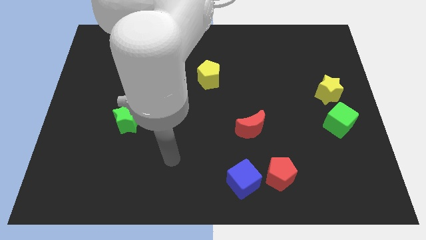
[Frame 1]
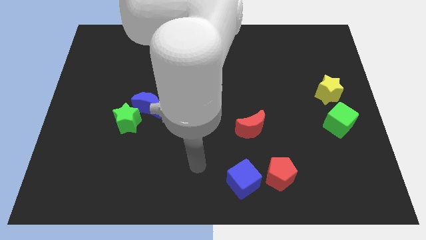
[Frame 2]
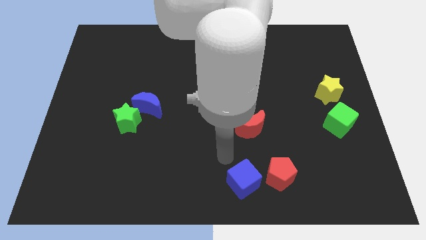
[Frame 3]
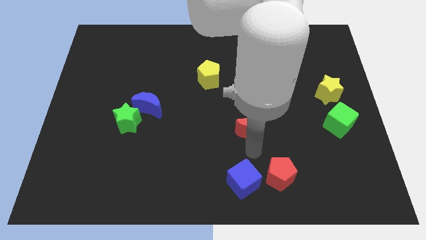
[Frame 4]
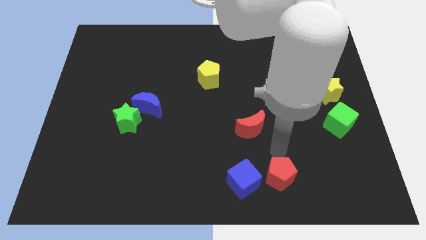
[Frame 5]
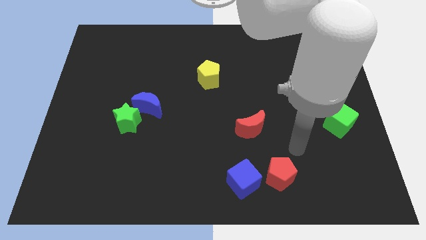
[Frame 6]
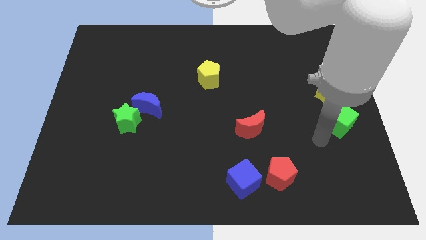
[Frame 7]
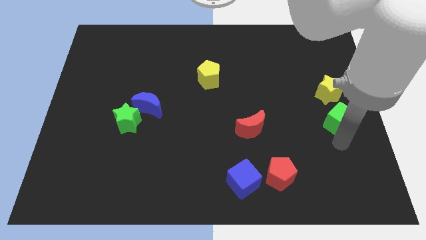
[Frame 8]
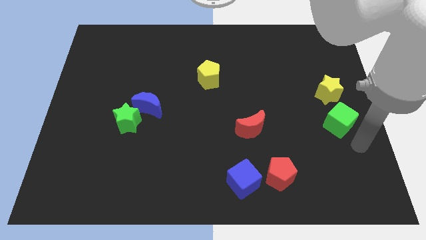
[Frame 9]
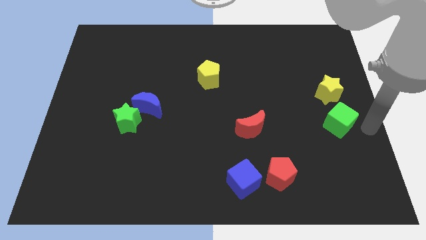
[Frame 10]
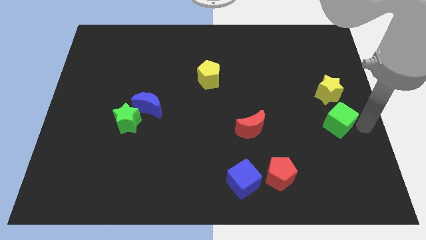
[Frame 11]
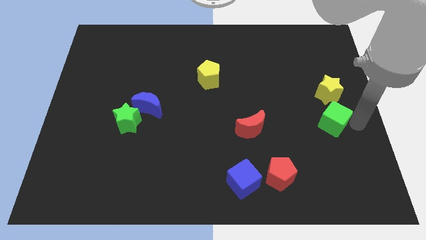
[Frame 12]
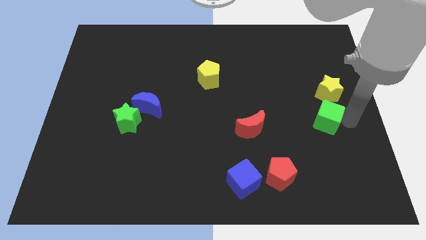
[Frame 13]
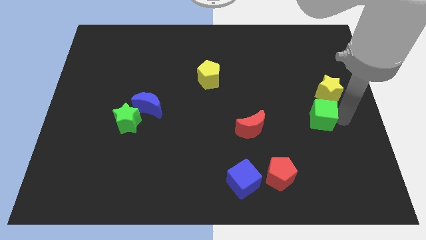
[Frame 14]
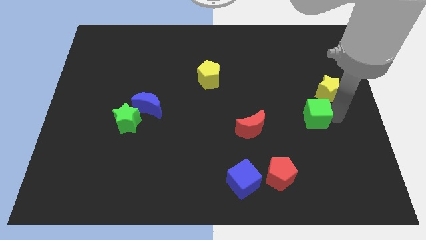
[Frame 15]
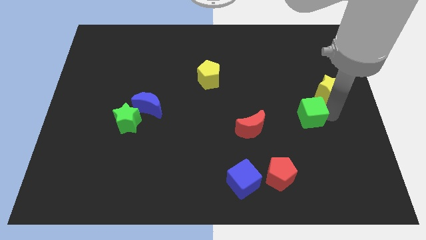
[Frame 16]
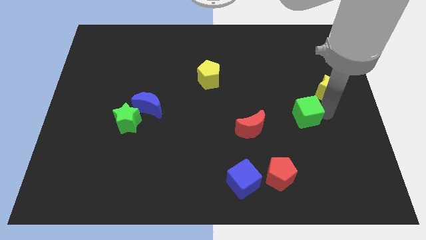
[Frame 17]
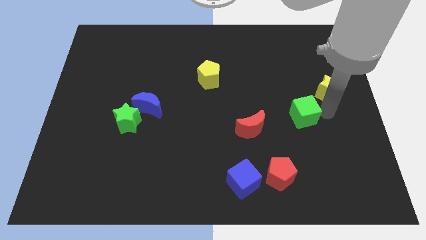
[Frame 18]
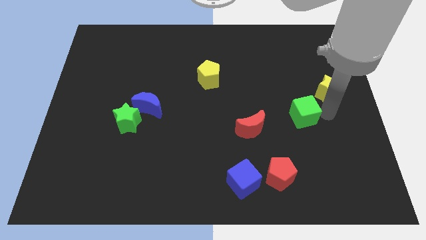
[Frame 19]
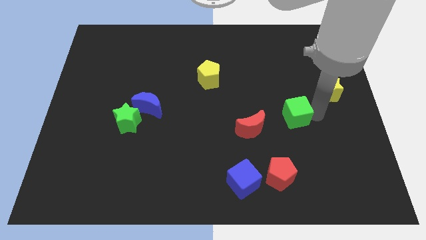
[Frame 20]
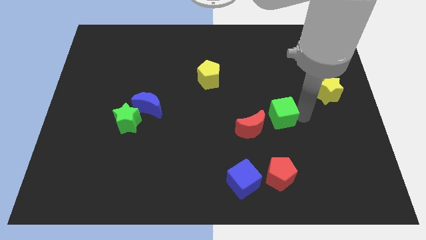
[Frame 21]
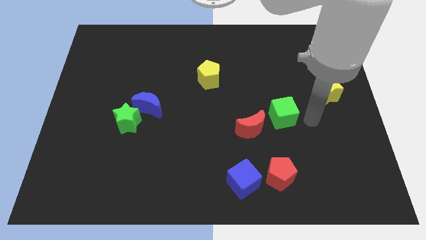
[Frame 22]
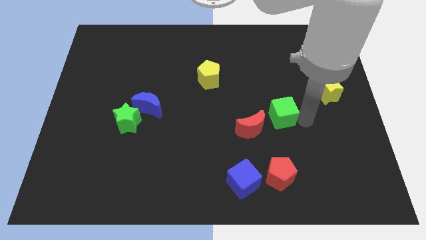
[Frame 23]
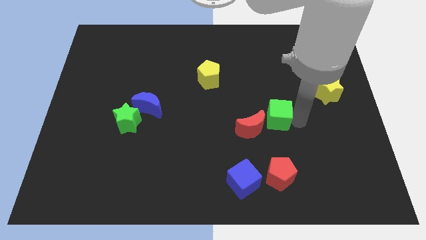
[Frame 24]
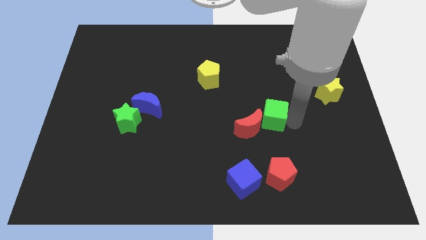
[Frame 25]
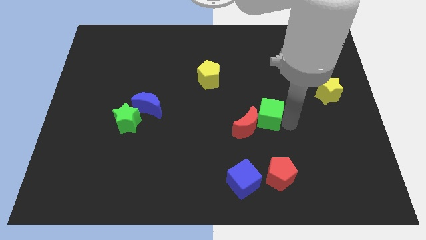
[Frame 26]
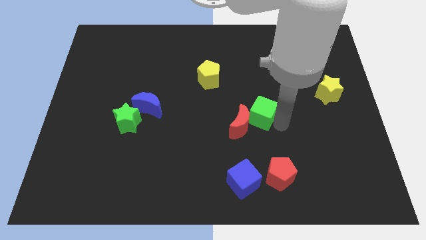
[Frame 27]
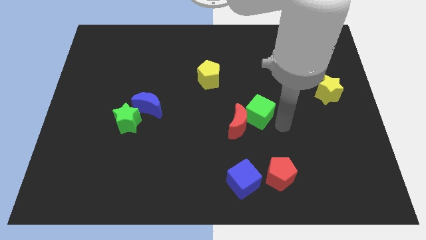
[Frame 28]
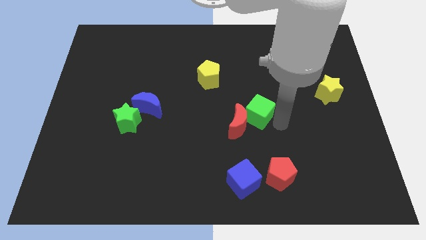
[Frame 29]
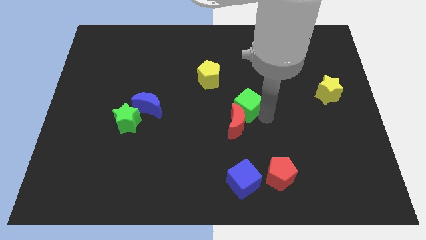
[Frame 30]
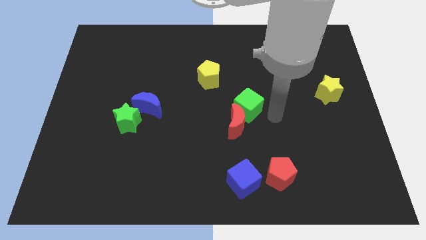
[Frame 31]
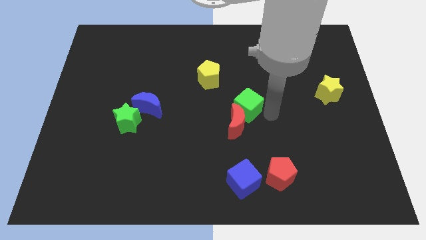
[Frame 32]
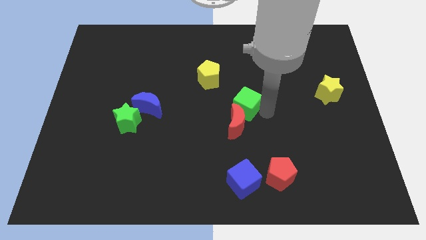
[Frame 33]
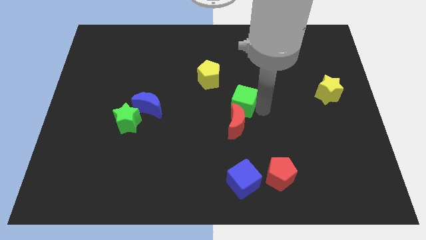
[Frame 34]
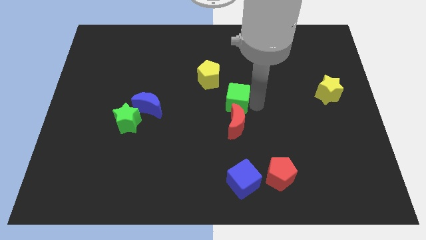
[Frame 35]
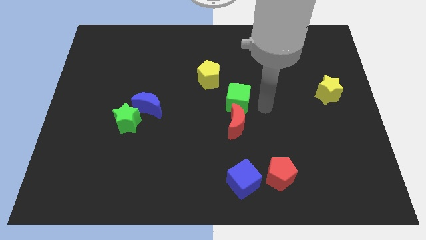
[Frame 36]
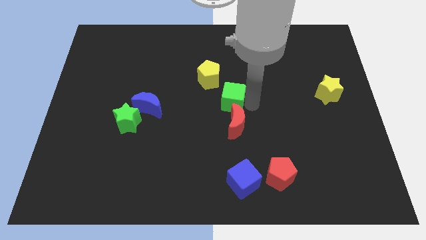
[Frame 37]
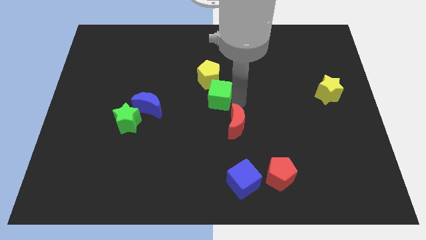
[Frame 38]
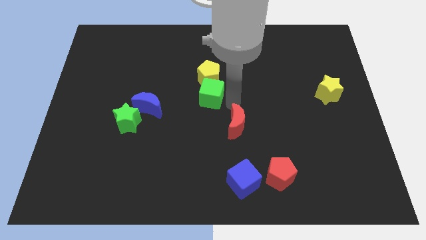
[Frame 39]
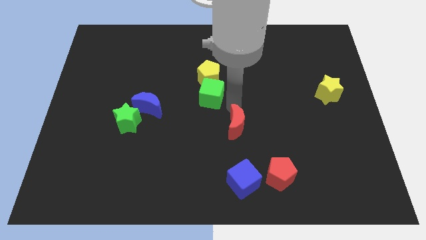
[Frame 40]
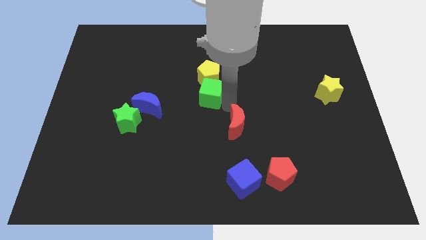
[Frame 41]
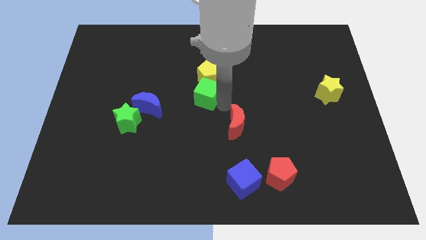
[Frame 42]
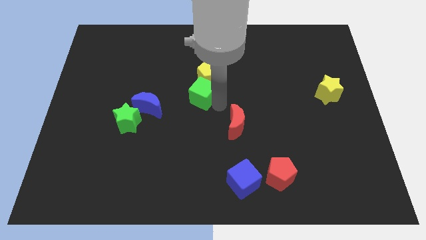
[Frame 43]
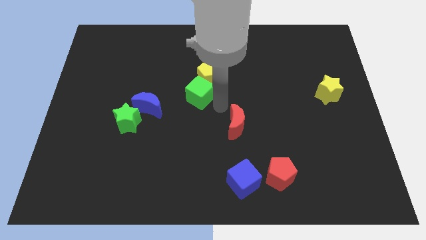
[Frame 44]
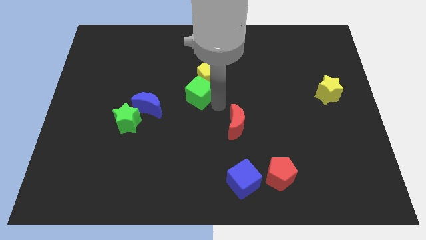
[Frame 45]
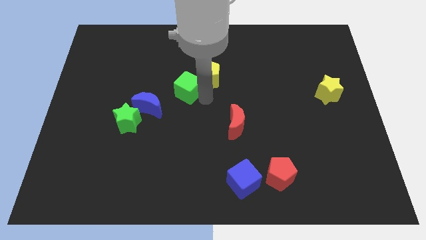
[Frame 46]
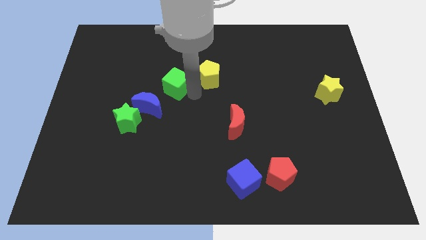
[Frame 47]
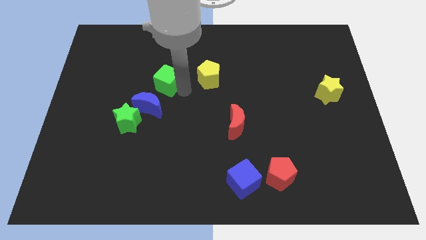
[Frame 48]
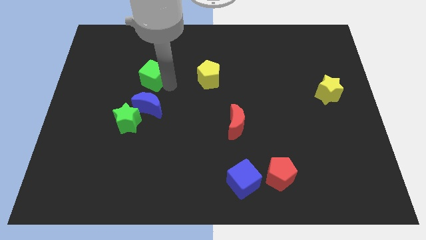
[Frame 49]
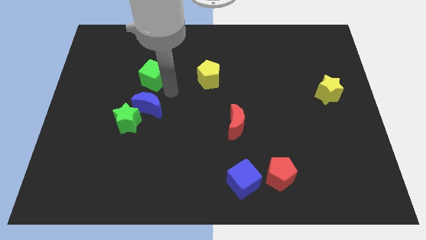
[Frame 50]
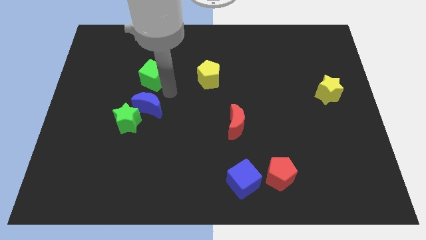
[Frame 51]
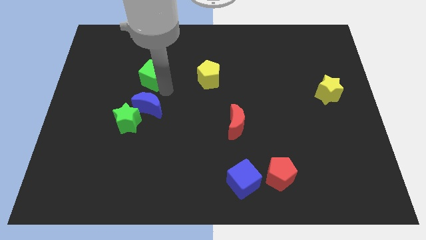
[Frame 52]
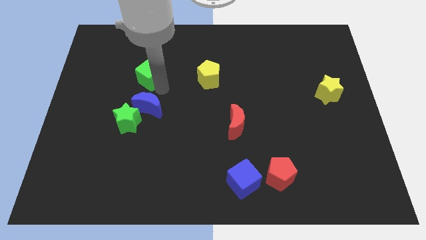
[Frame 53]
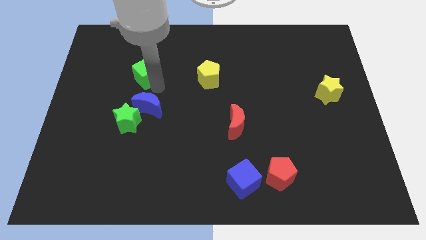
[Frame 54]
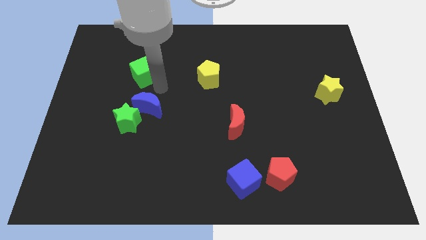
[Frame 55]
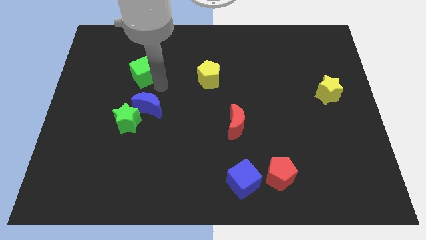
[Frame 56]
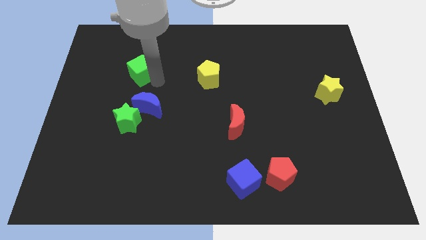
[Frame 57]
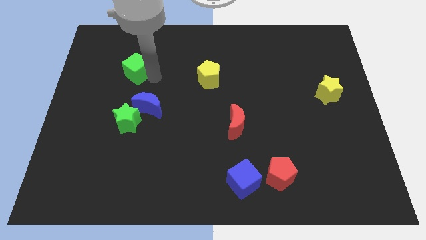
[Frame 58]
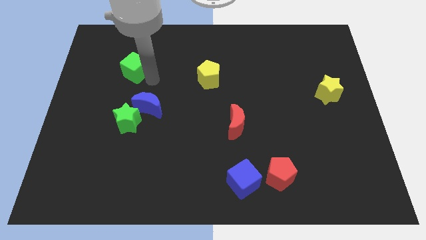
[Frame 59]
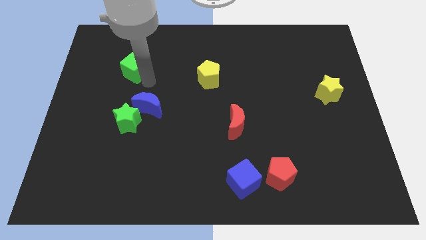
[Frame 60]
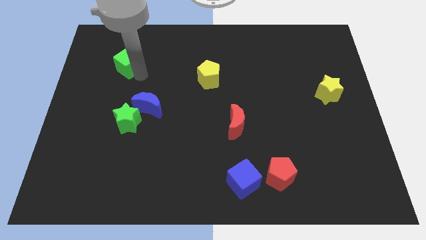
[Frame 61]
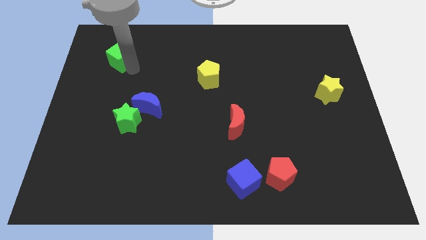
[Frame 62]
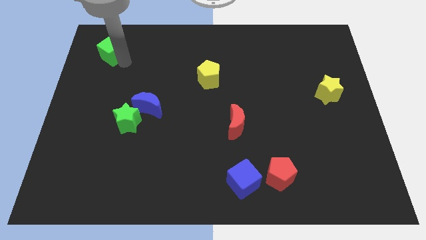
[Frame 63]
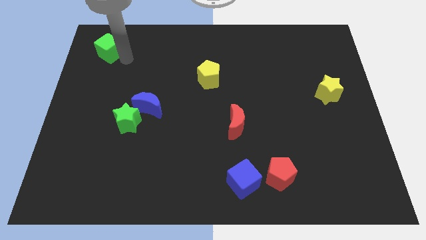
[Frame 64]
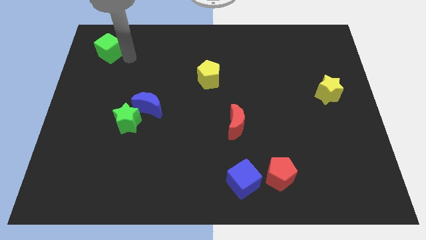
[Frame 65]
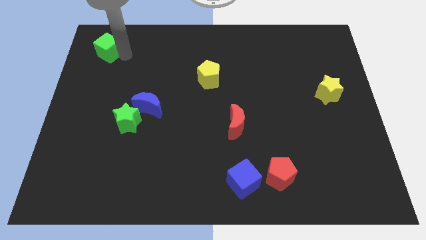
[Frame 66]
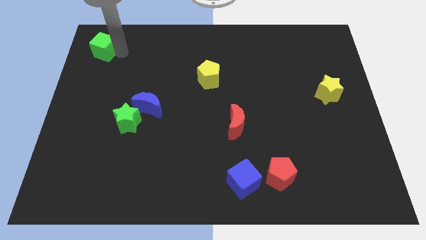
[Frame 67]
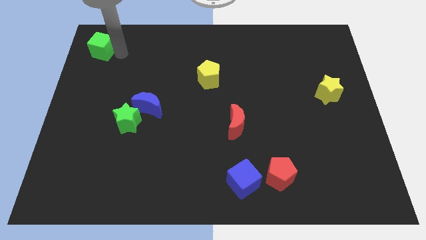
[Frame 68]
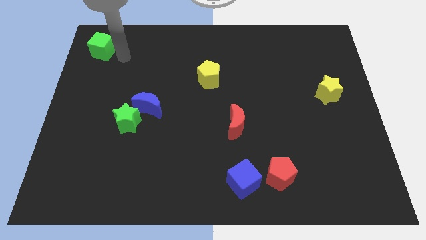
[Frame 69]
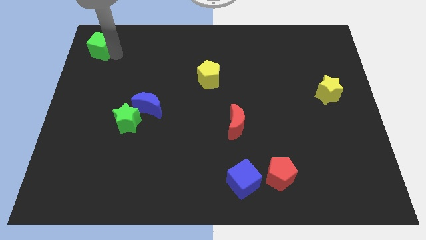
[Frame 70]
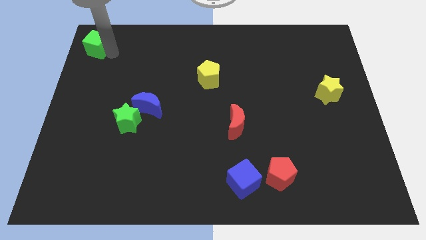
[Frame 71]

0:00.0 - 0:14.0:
move the green cube to the top left of the board
